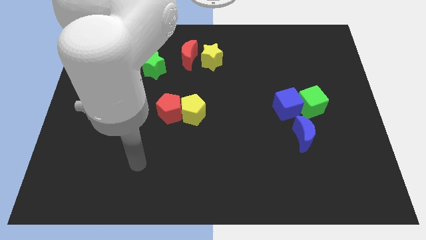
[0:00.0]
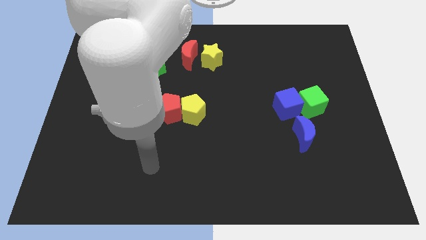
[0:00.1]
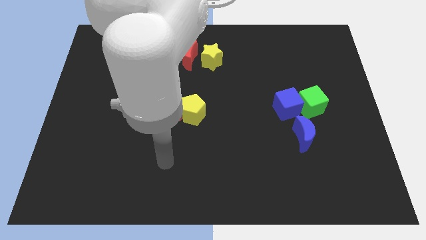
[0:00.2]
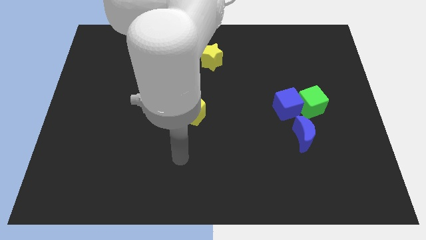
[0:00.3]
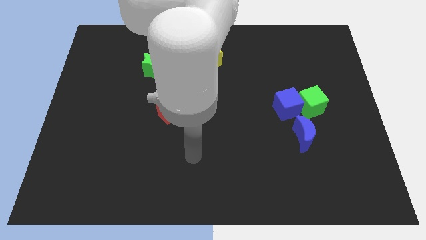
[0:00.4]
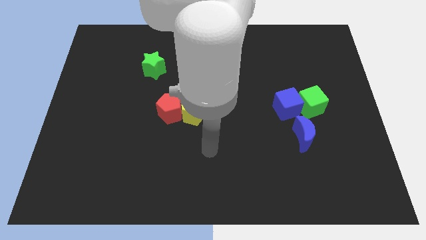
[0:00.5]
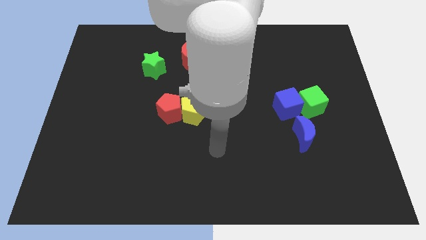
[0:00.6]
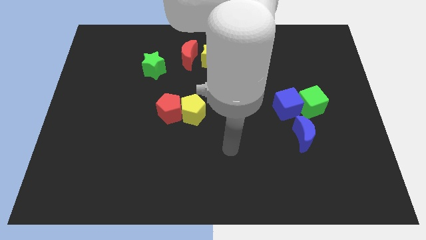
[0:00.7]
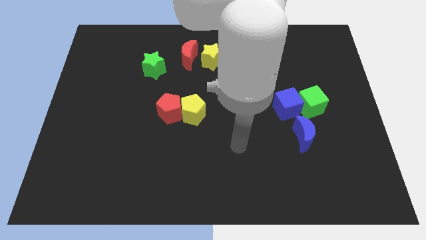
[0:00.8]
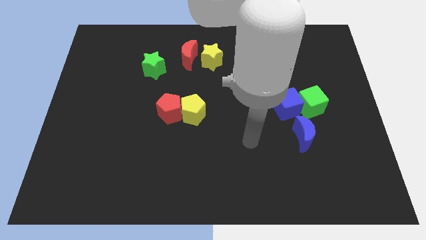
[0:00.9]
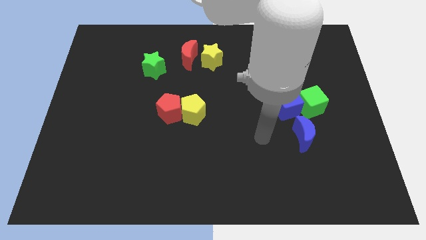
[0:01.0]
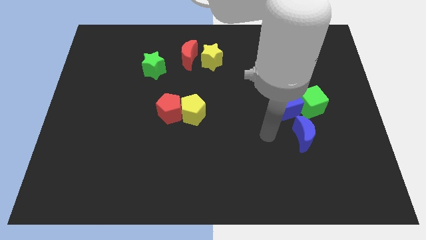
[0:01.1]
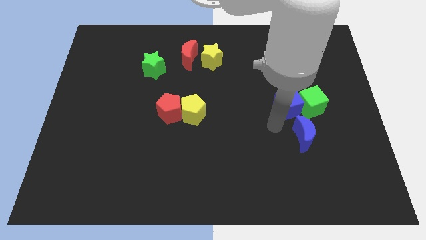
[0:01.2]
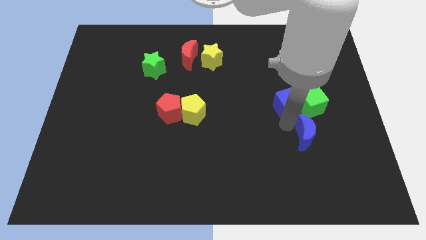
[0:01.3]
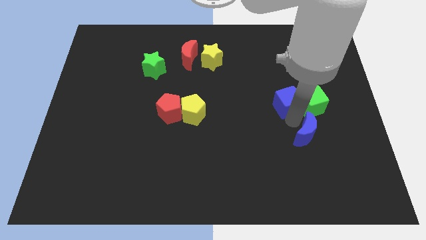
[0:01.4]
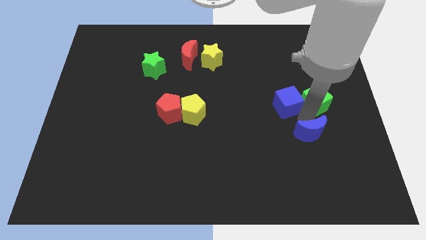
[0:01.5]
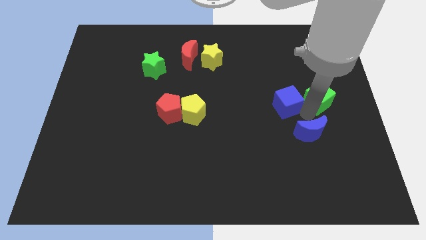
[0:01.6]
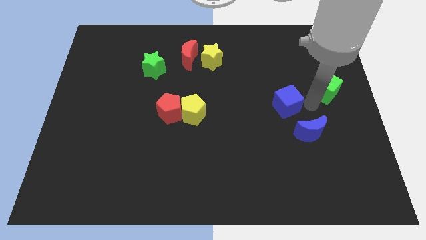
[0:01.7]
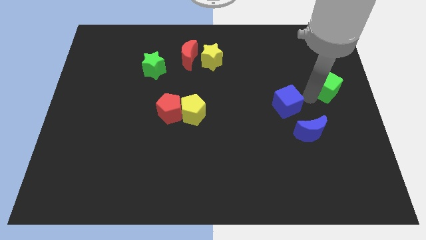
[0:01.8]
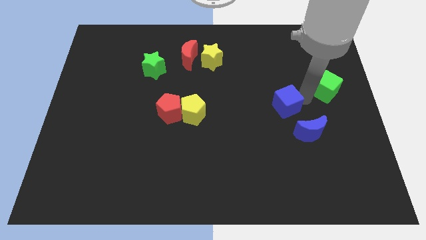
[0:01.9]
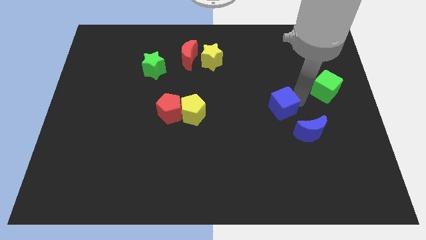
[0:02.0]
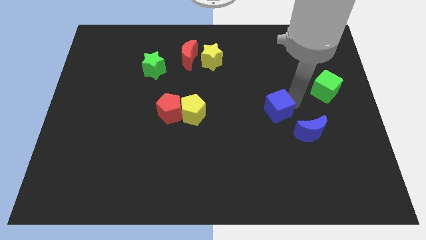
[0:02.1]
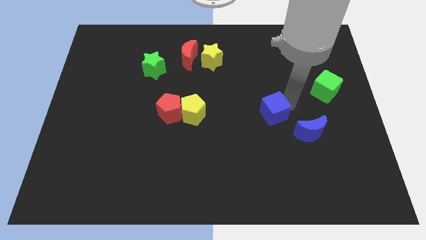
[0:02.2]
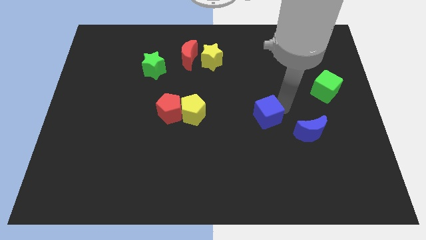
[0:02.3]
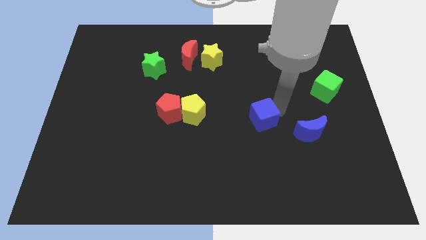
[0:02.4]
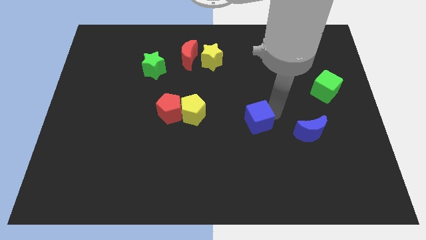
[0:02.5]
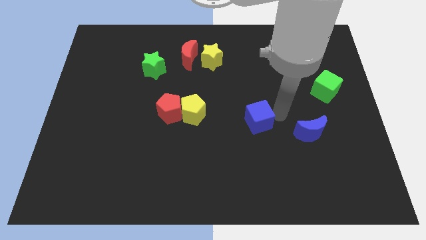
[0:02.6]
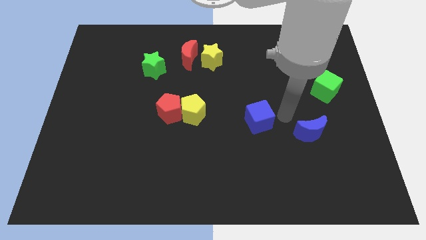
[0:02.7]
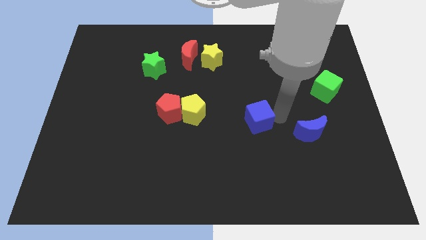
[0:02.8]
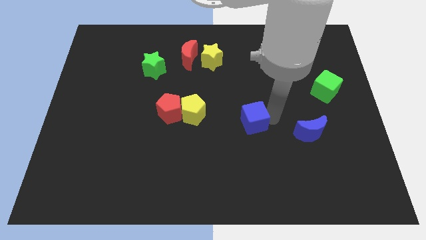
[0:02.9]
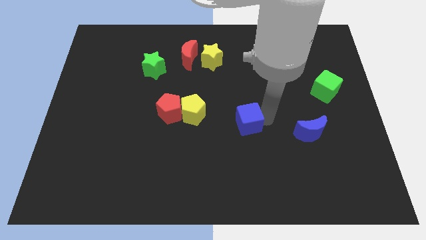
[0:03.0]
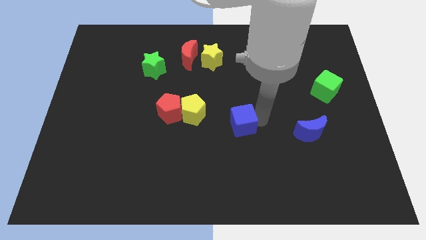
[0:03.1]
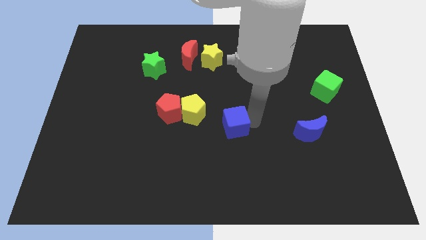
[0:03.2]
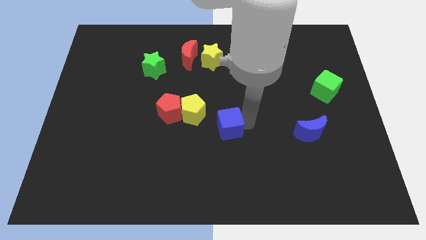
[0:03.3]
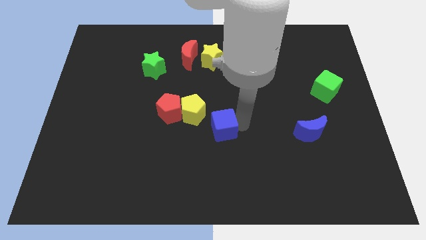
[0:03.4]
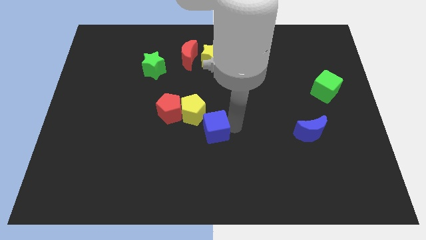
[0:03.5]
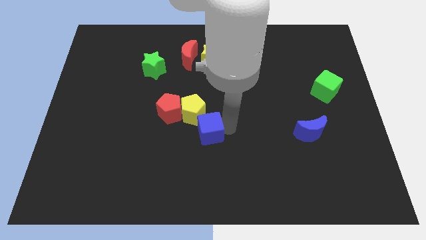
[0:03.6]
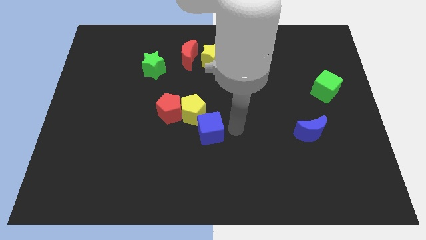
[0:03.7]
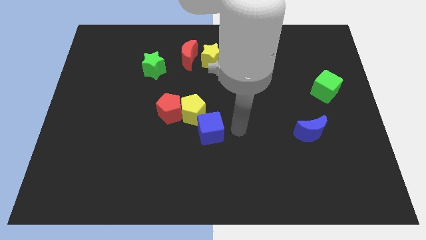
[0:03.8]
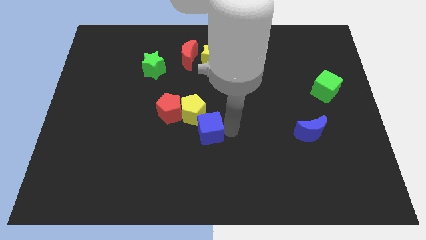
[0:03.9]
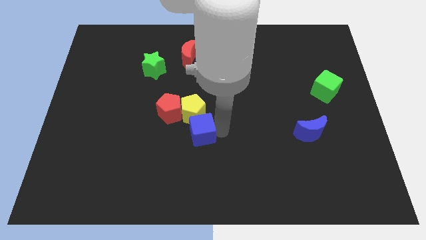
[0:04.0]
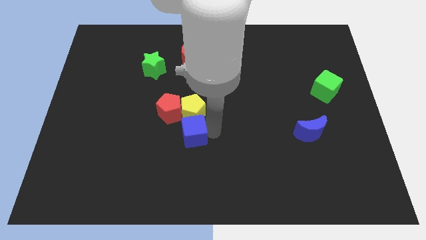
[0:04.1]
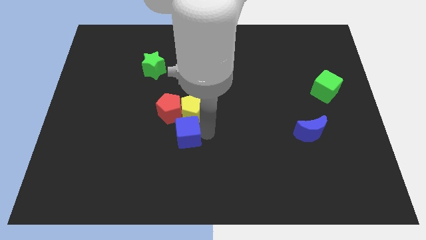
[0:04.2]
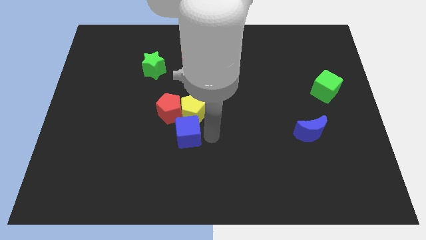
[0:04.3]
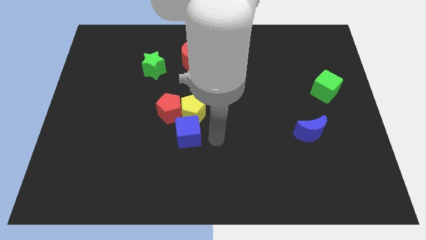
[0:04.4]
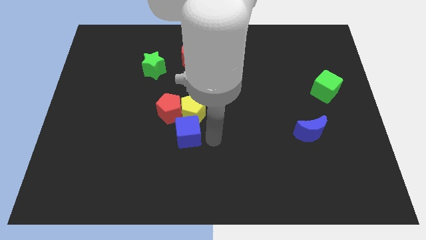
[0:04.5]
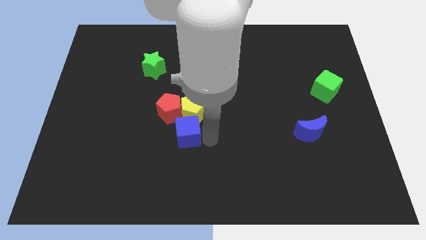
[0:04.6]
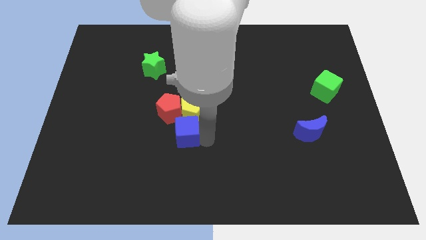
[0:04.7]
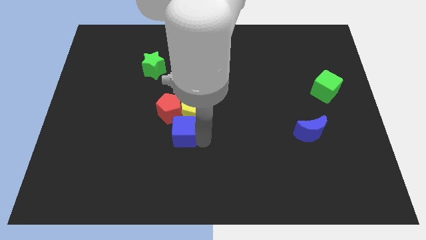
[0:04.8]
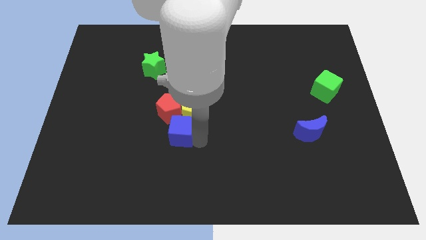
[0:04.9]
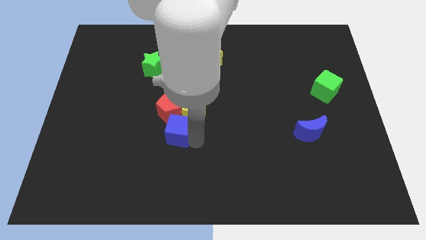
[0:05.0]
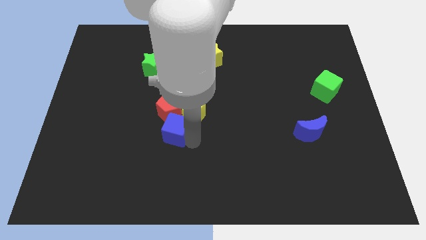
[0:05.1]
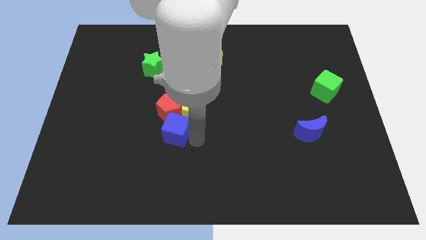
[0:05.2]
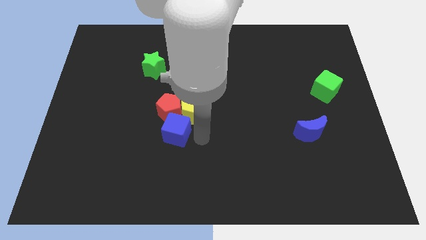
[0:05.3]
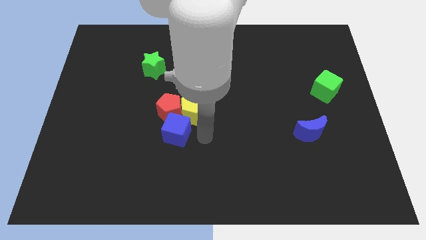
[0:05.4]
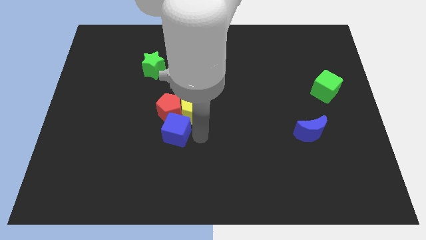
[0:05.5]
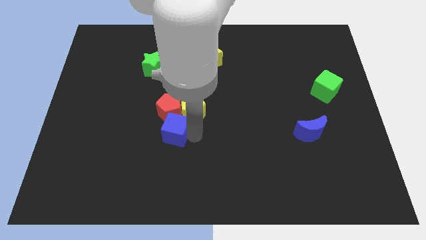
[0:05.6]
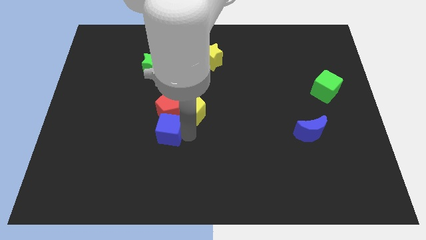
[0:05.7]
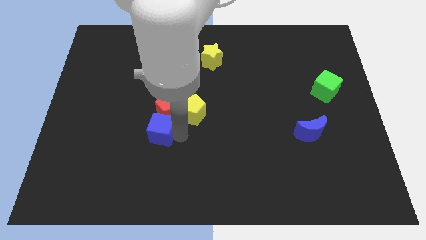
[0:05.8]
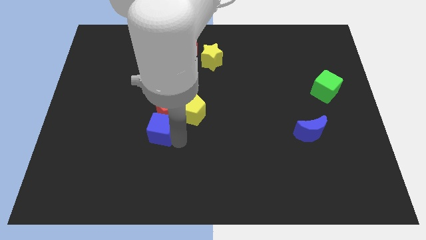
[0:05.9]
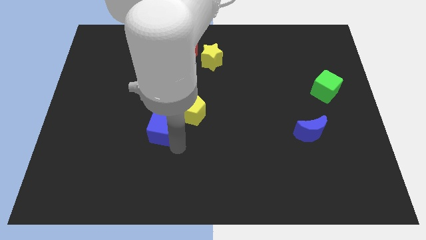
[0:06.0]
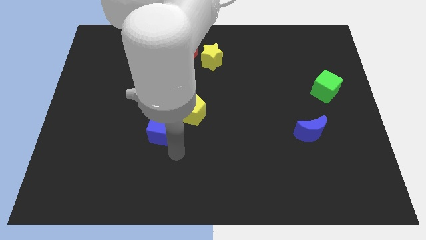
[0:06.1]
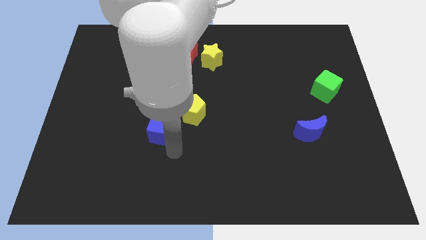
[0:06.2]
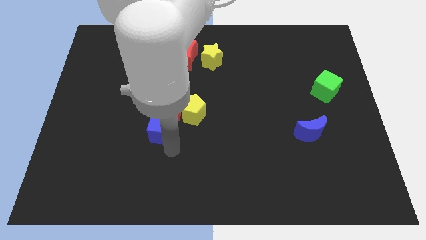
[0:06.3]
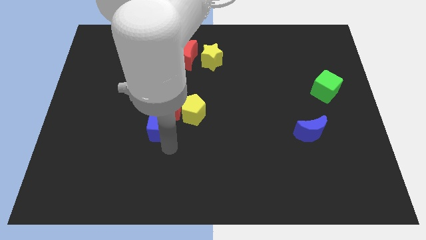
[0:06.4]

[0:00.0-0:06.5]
push the blue cube just left of the yellow pentagon

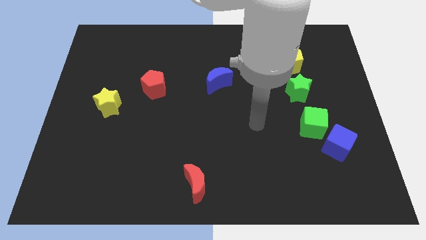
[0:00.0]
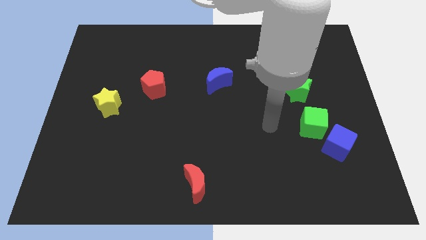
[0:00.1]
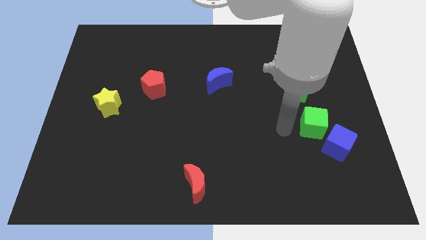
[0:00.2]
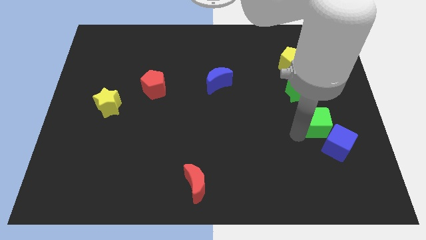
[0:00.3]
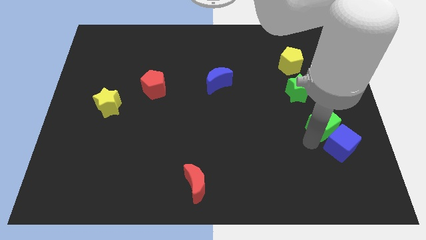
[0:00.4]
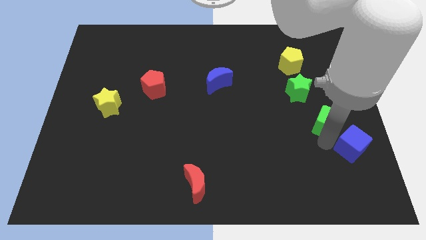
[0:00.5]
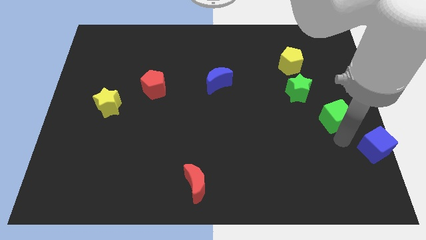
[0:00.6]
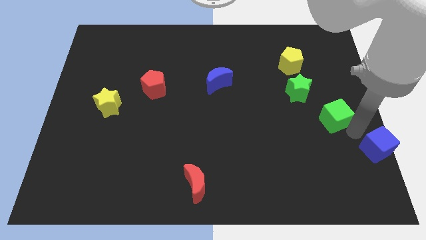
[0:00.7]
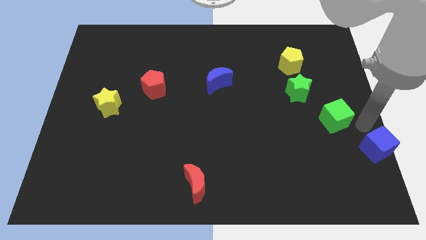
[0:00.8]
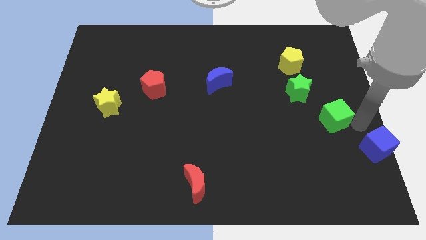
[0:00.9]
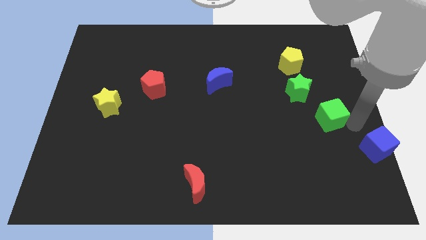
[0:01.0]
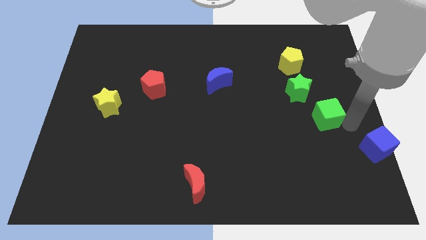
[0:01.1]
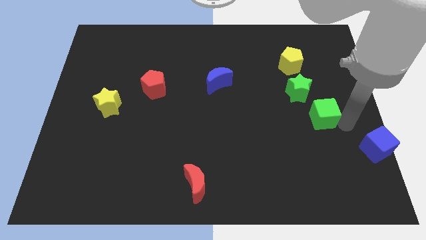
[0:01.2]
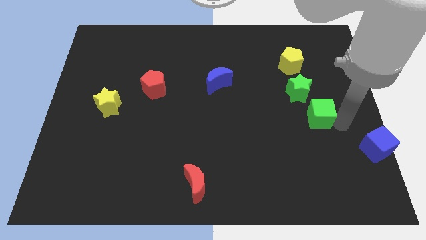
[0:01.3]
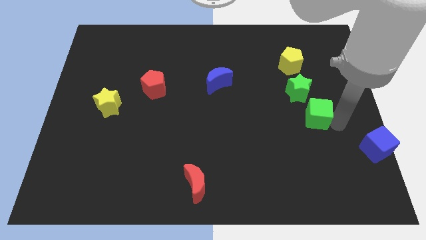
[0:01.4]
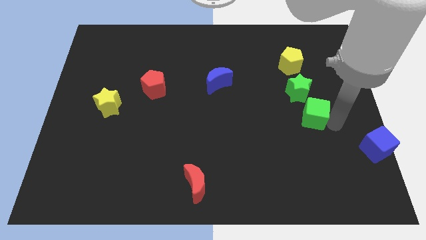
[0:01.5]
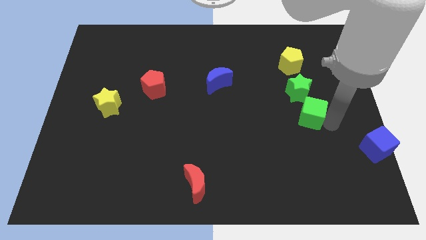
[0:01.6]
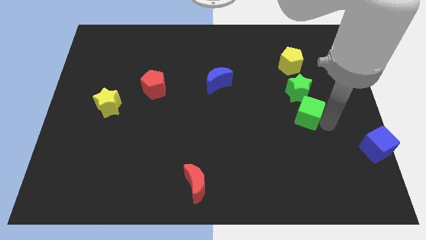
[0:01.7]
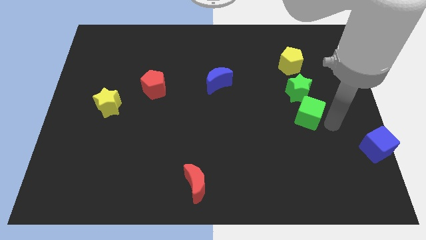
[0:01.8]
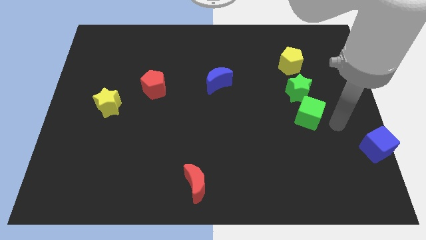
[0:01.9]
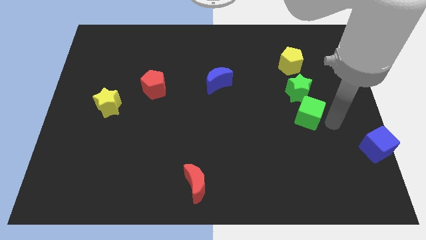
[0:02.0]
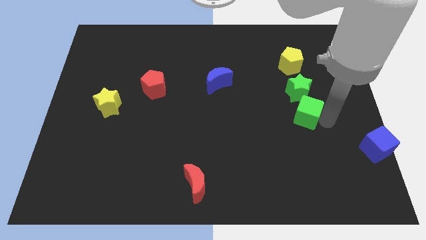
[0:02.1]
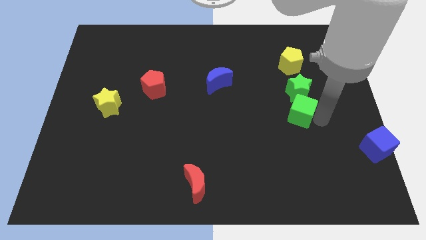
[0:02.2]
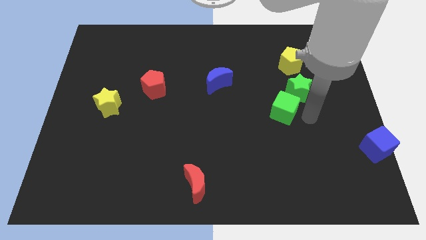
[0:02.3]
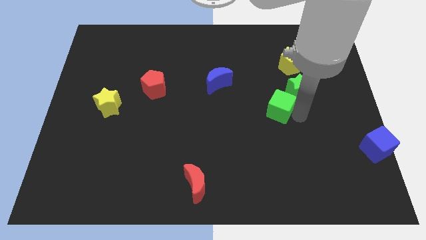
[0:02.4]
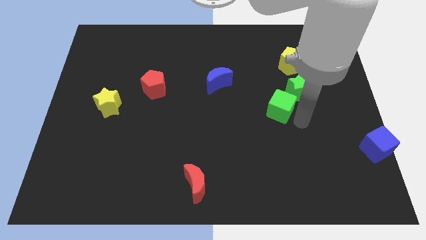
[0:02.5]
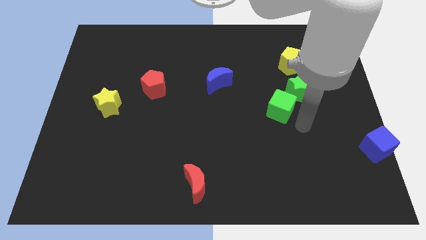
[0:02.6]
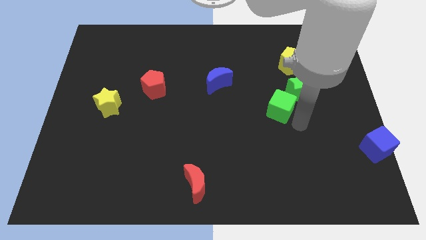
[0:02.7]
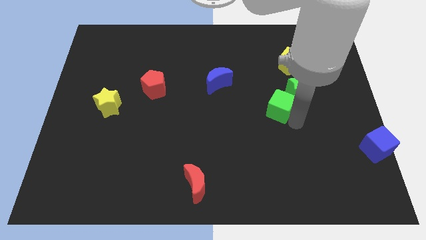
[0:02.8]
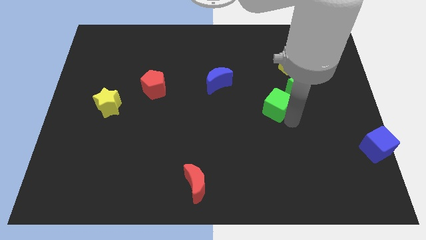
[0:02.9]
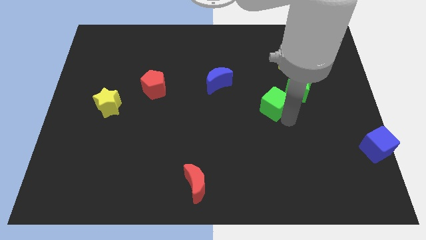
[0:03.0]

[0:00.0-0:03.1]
move the green cube to the left side of the green star
